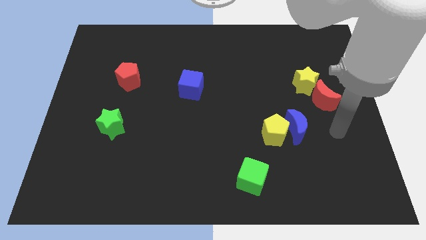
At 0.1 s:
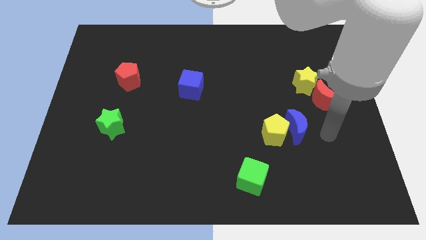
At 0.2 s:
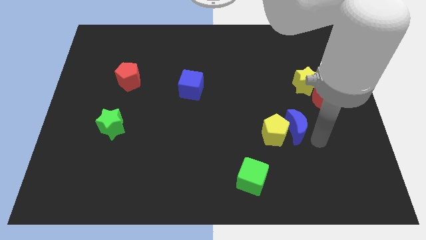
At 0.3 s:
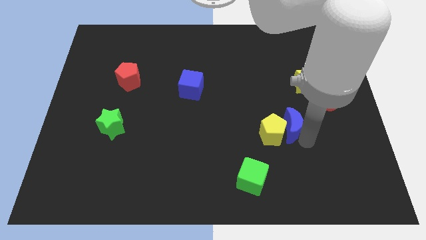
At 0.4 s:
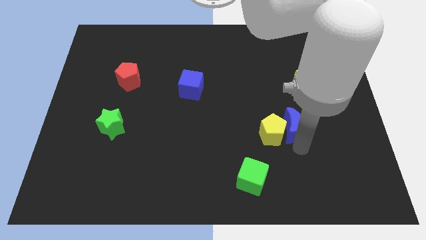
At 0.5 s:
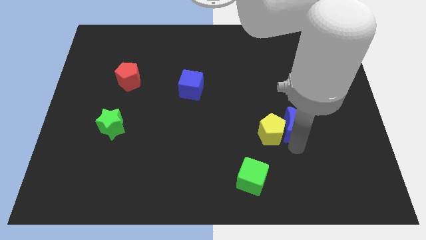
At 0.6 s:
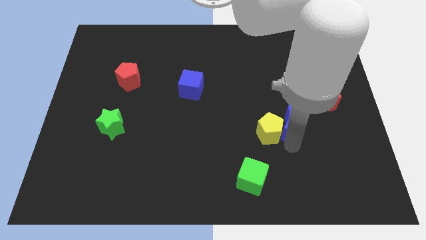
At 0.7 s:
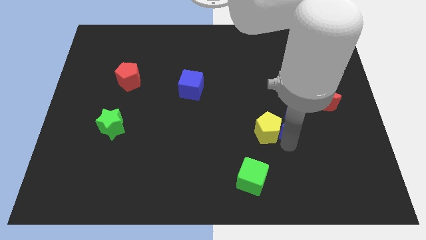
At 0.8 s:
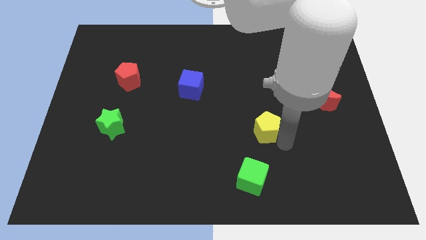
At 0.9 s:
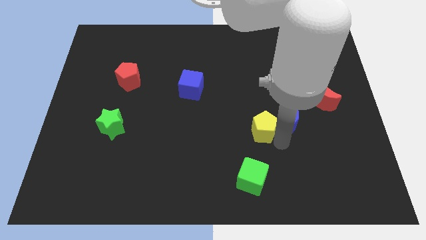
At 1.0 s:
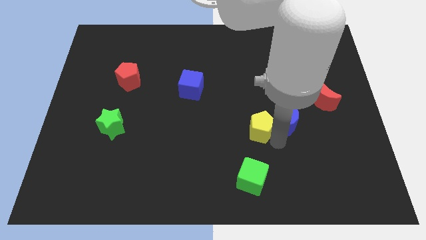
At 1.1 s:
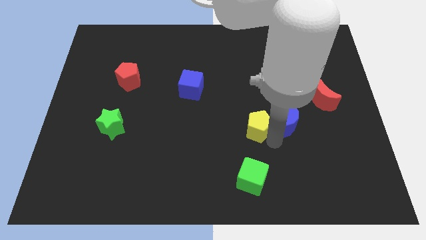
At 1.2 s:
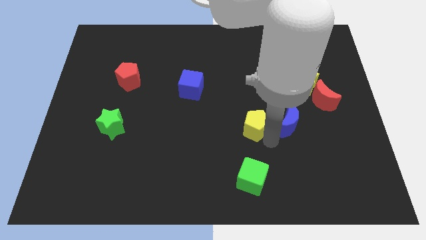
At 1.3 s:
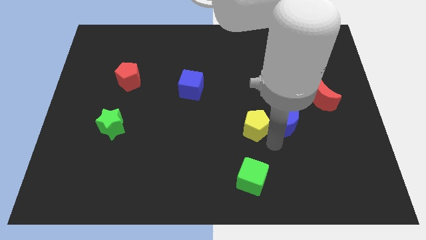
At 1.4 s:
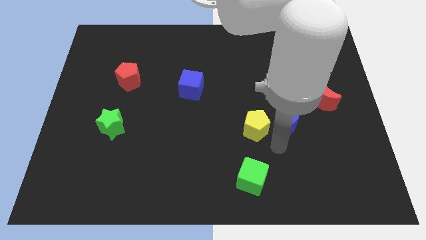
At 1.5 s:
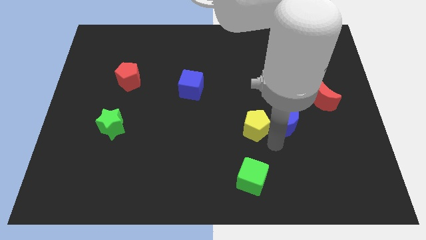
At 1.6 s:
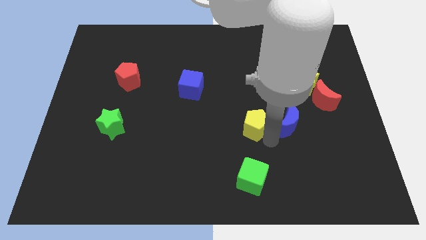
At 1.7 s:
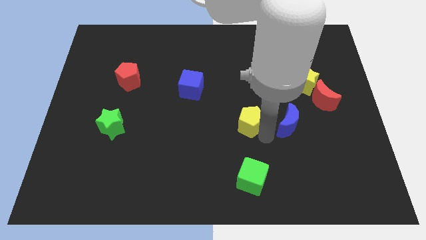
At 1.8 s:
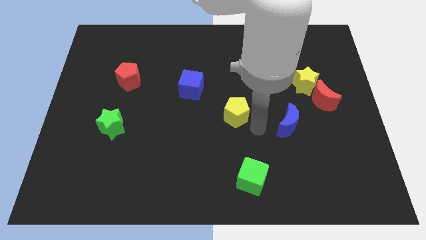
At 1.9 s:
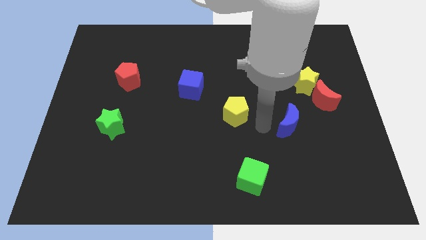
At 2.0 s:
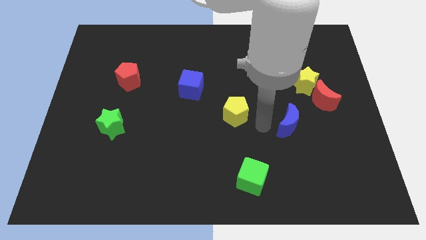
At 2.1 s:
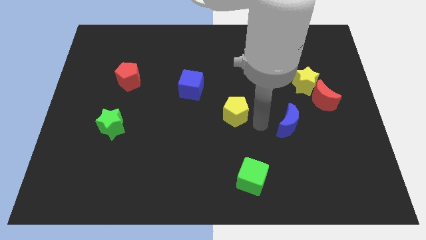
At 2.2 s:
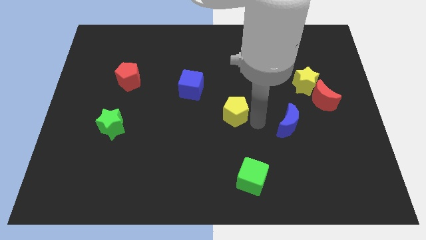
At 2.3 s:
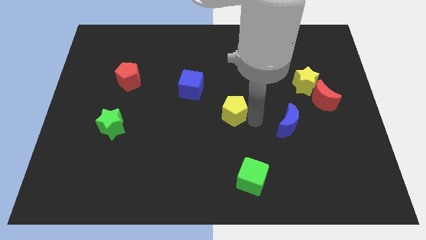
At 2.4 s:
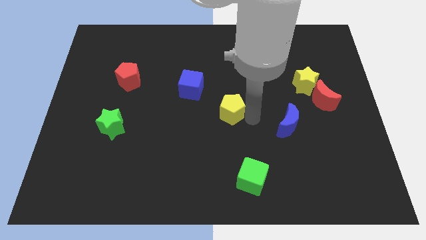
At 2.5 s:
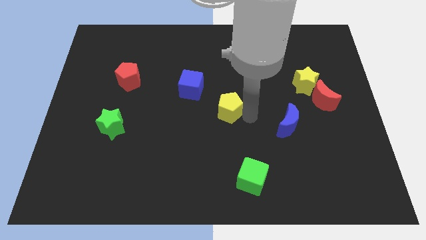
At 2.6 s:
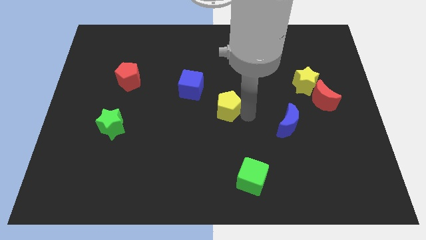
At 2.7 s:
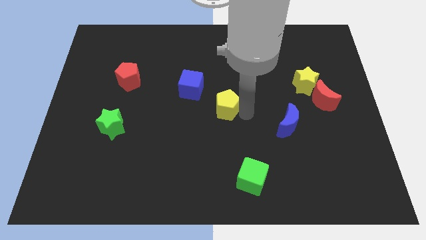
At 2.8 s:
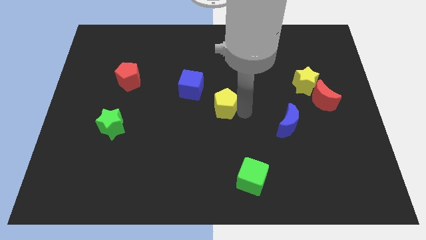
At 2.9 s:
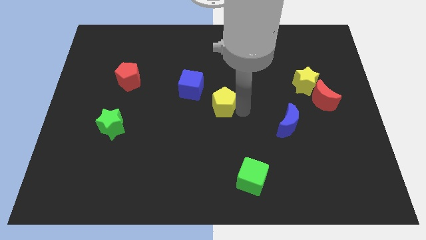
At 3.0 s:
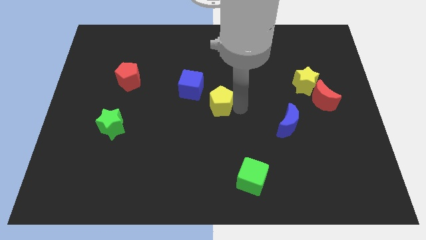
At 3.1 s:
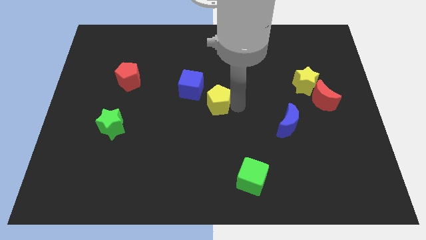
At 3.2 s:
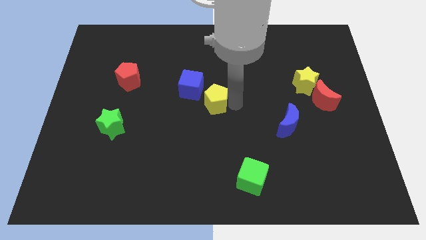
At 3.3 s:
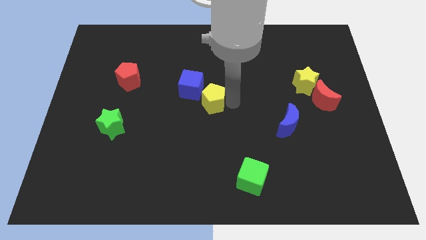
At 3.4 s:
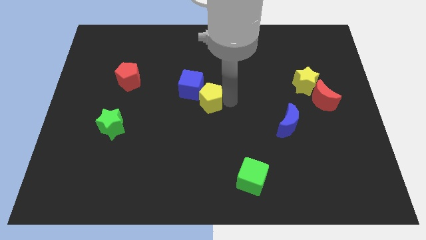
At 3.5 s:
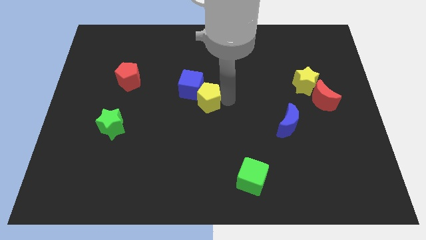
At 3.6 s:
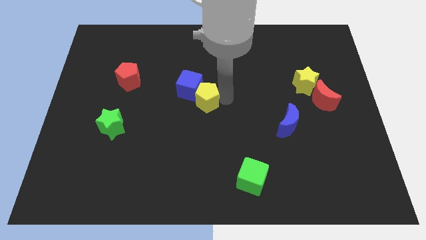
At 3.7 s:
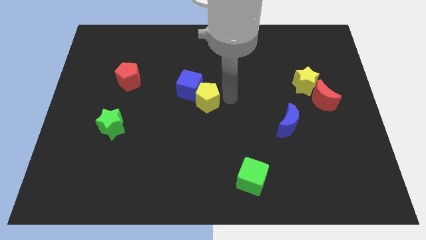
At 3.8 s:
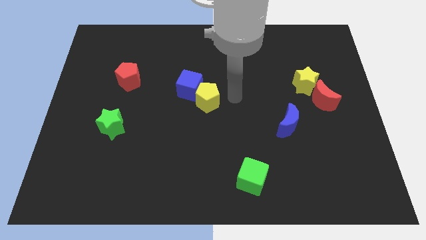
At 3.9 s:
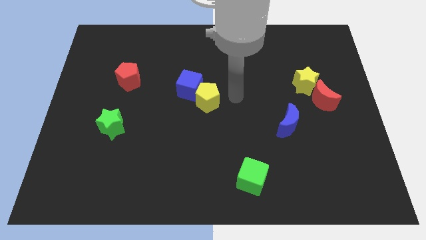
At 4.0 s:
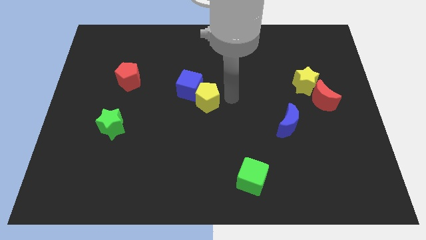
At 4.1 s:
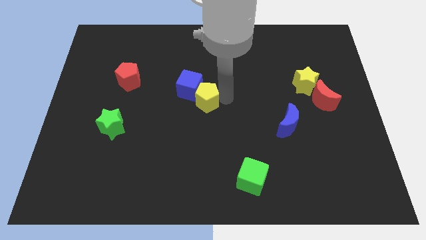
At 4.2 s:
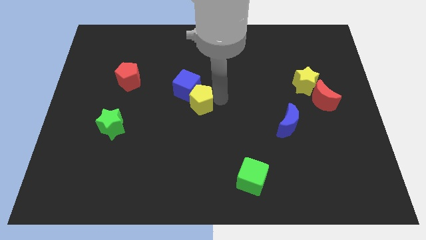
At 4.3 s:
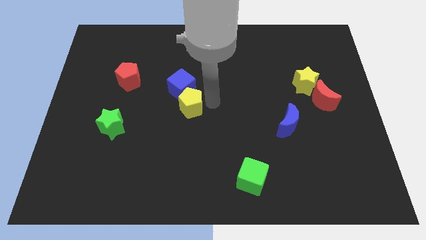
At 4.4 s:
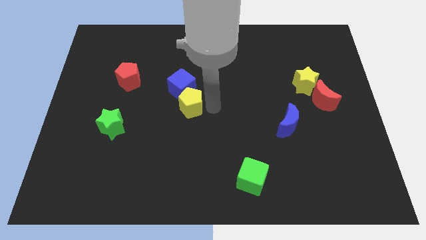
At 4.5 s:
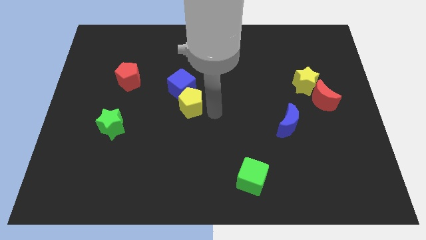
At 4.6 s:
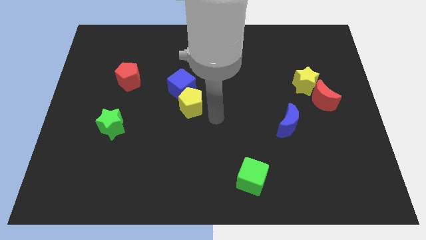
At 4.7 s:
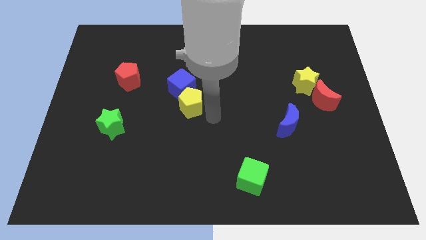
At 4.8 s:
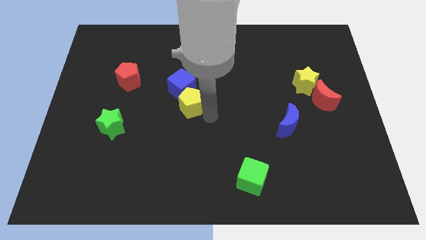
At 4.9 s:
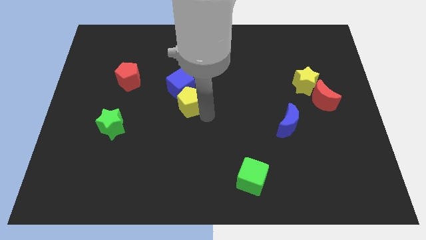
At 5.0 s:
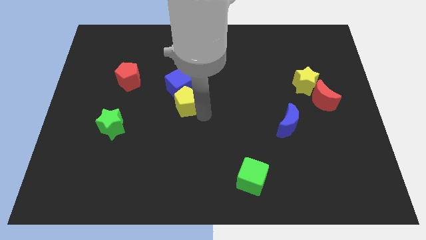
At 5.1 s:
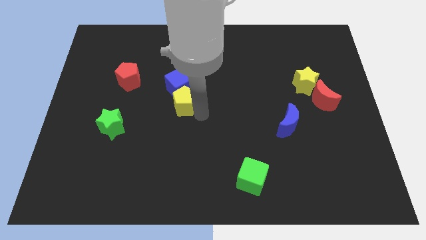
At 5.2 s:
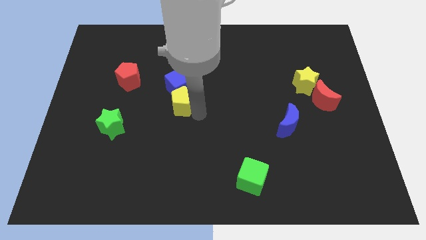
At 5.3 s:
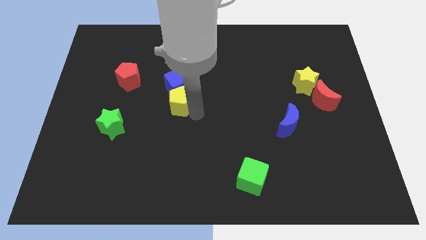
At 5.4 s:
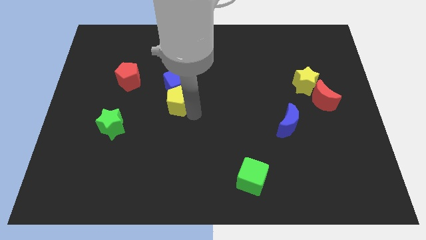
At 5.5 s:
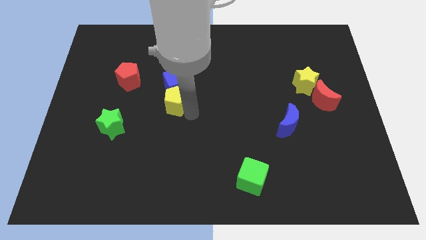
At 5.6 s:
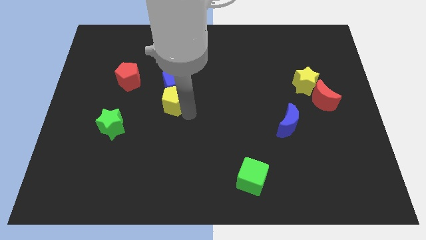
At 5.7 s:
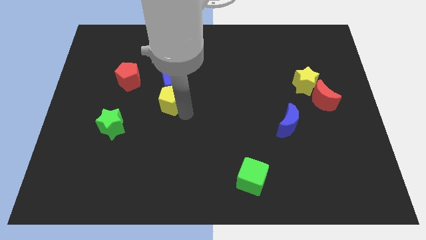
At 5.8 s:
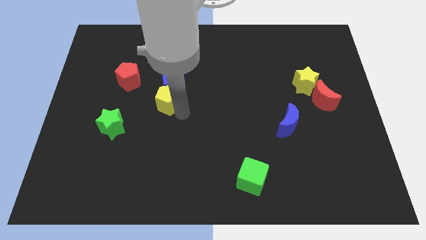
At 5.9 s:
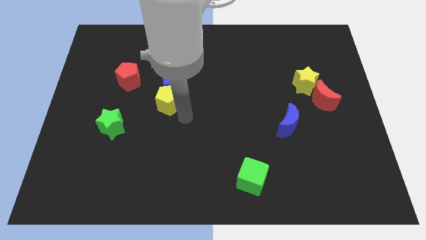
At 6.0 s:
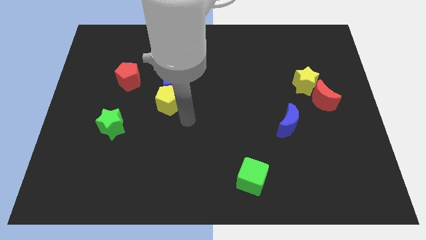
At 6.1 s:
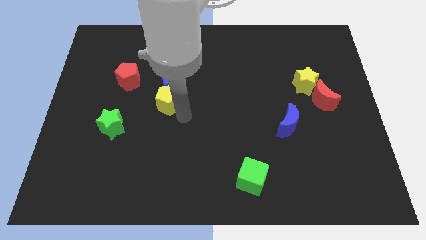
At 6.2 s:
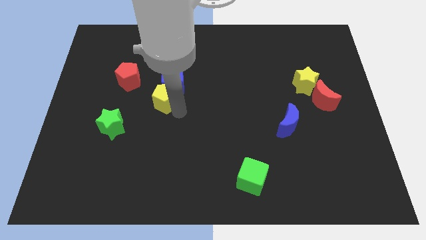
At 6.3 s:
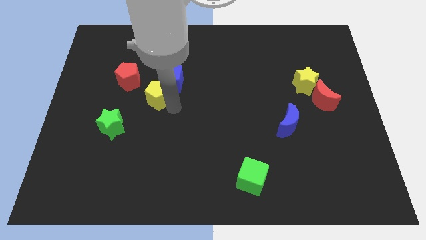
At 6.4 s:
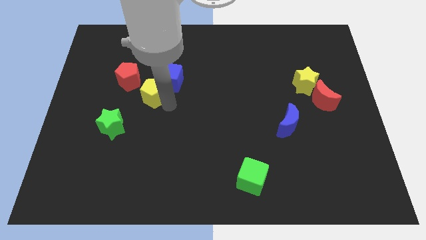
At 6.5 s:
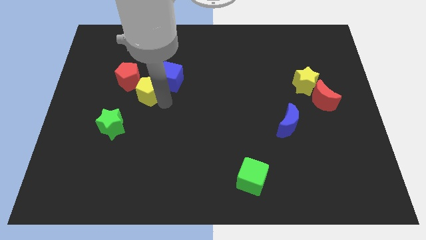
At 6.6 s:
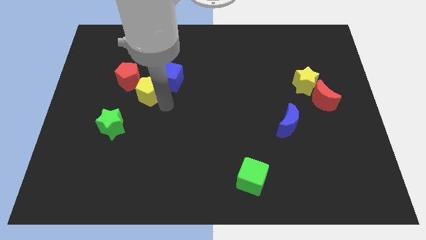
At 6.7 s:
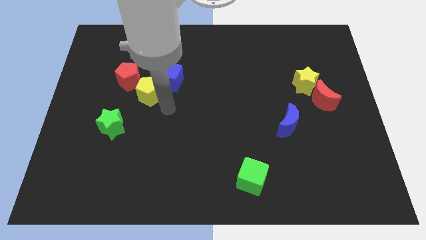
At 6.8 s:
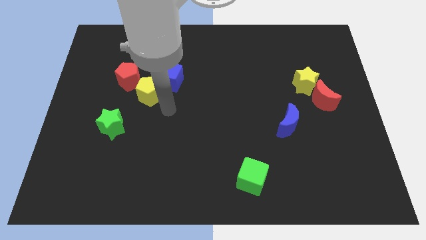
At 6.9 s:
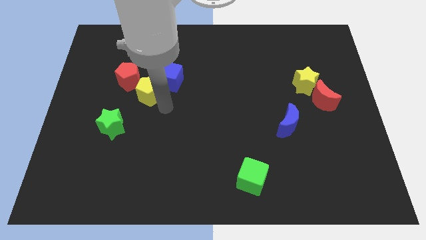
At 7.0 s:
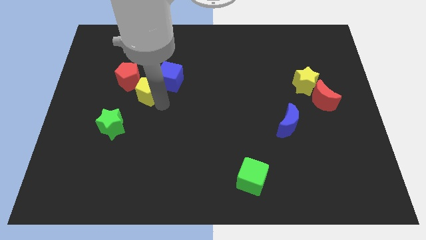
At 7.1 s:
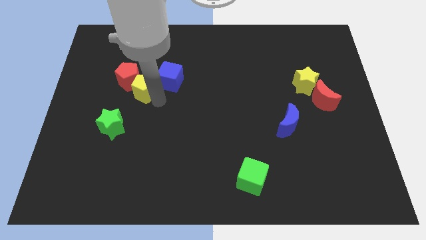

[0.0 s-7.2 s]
push the yellow pentagon towards the red pentagon
